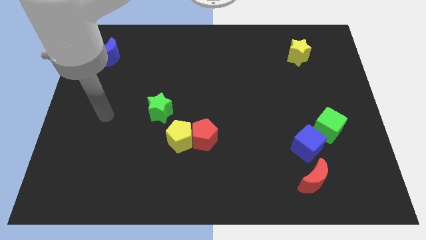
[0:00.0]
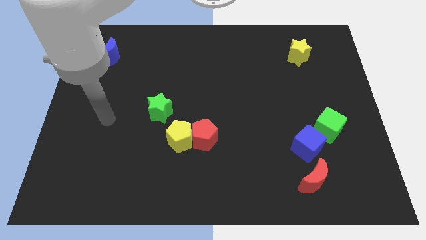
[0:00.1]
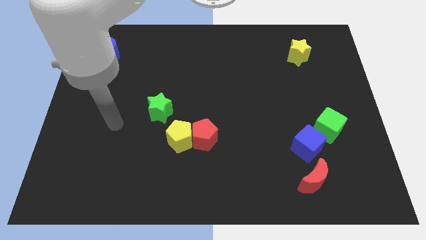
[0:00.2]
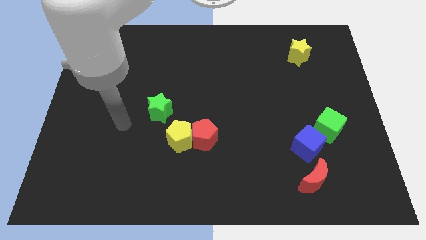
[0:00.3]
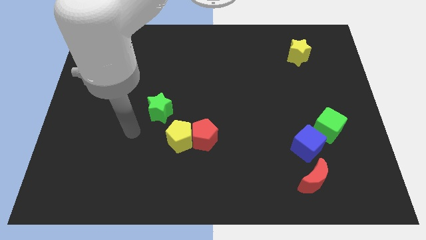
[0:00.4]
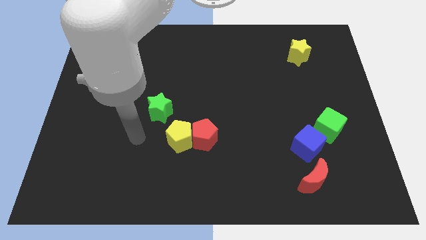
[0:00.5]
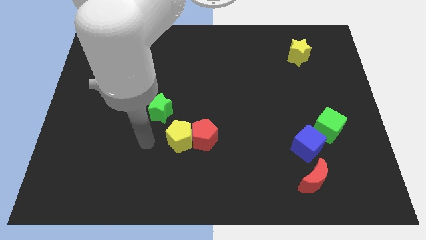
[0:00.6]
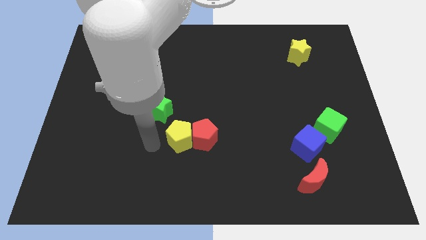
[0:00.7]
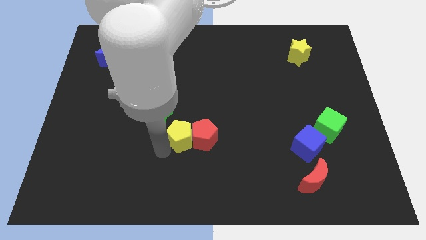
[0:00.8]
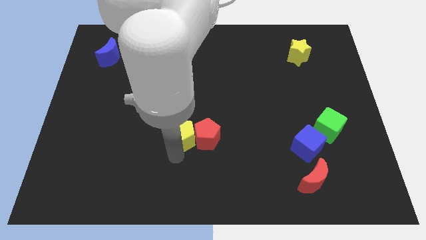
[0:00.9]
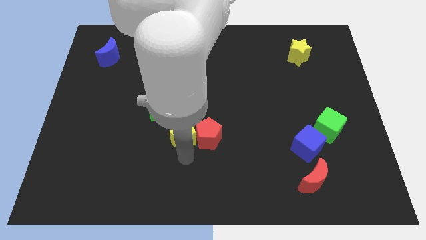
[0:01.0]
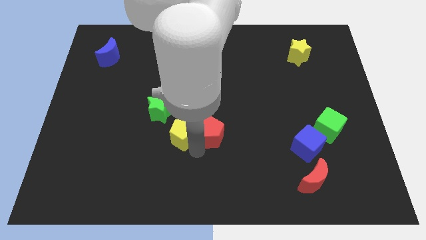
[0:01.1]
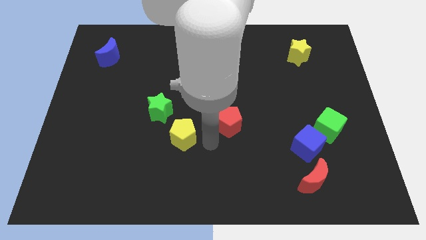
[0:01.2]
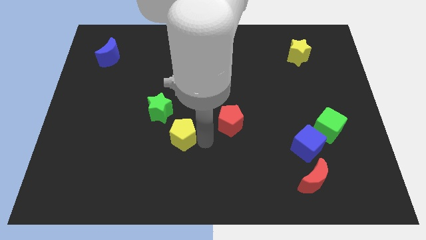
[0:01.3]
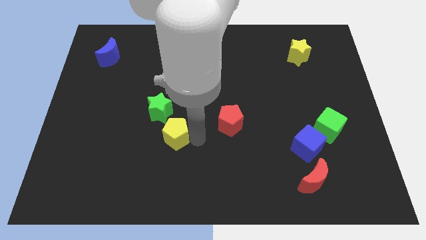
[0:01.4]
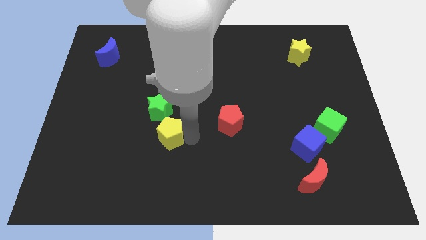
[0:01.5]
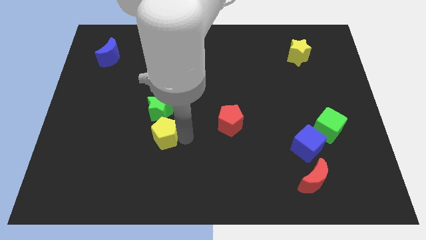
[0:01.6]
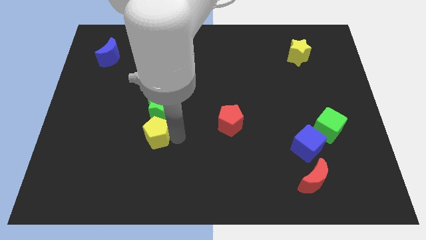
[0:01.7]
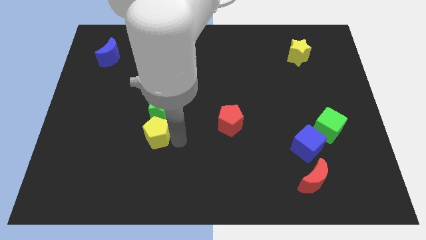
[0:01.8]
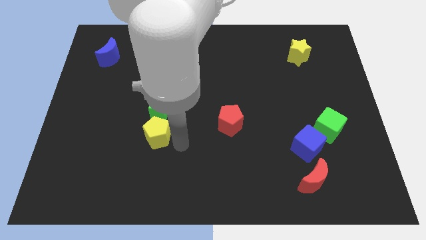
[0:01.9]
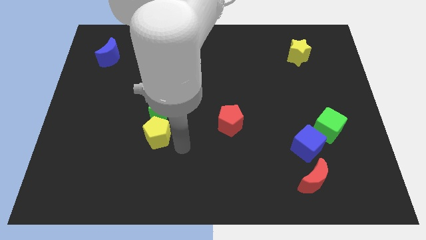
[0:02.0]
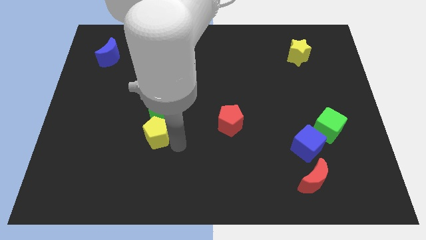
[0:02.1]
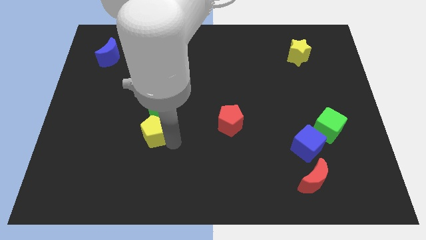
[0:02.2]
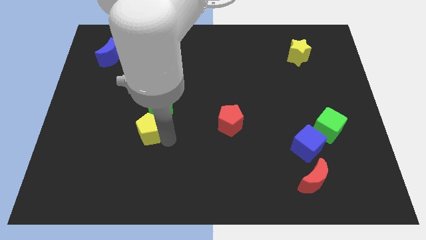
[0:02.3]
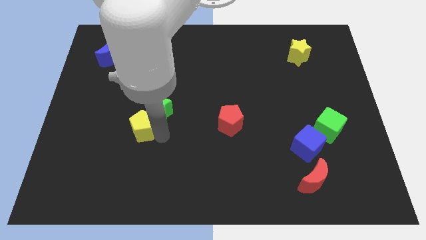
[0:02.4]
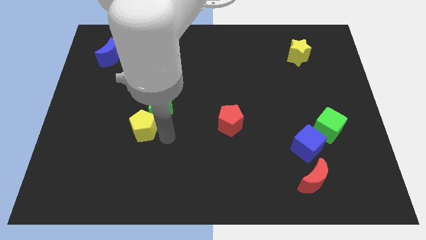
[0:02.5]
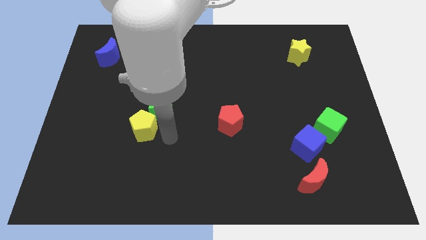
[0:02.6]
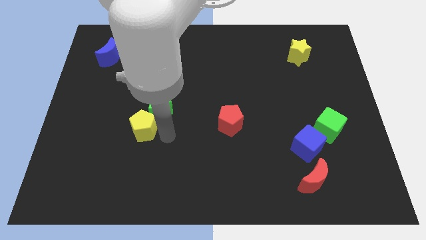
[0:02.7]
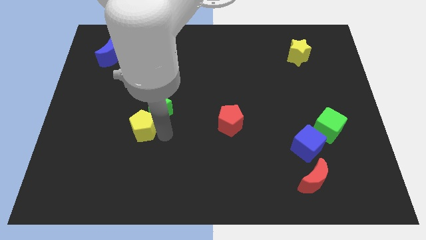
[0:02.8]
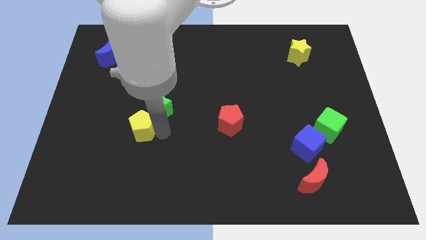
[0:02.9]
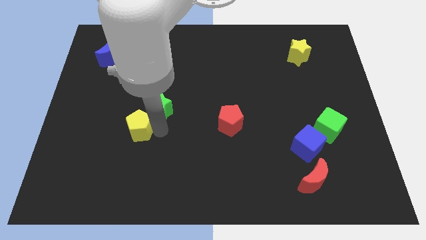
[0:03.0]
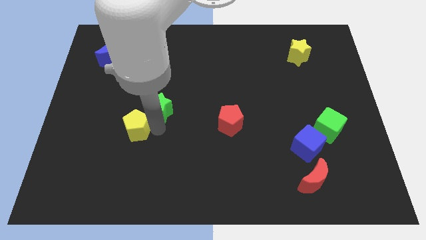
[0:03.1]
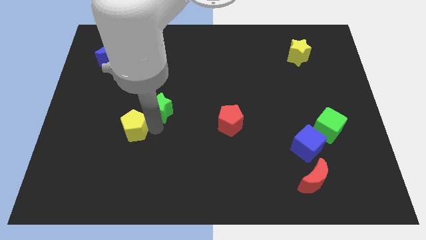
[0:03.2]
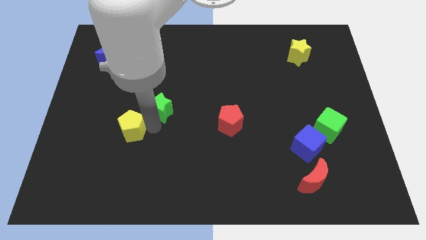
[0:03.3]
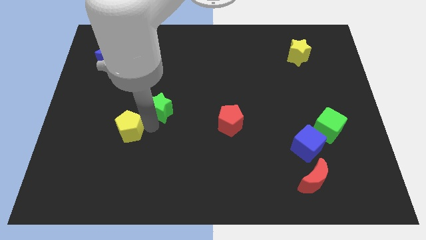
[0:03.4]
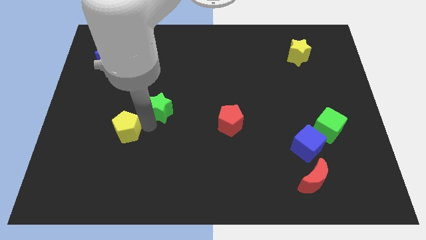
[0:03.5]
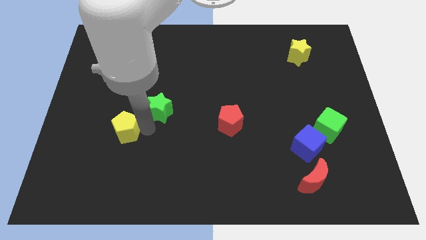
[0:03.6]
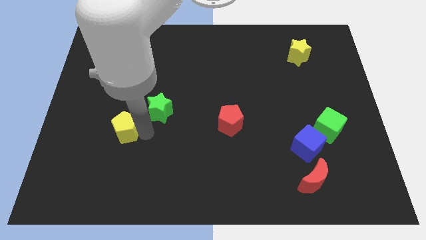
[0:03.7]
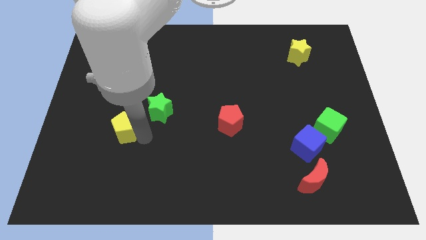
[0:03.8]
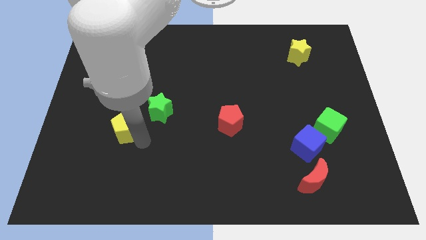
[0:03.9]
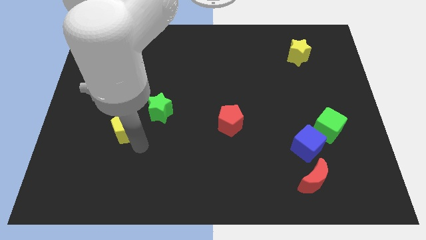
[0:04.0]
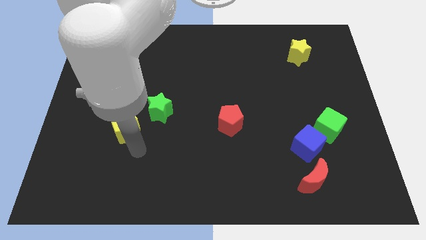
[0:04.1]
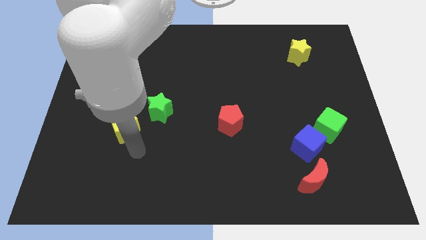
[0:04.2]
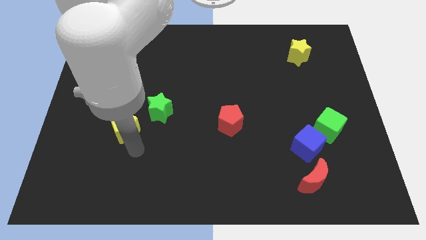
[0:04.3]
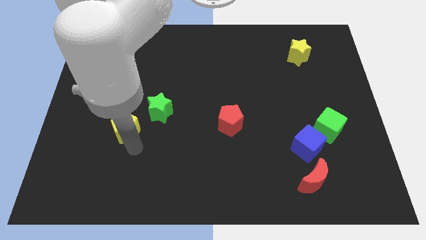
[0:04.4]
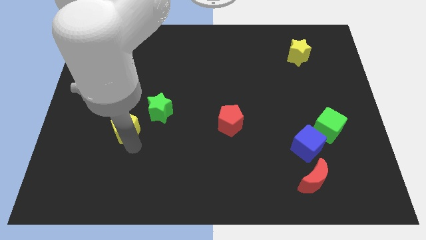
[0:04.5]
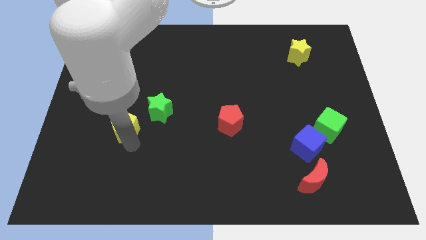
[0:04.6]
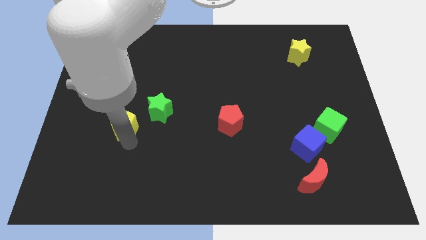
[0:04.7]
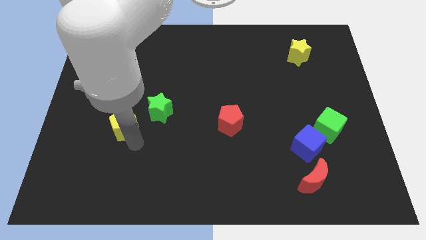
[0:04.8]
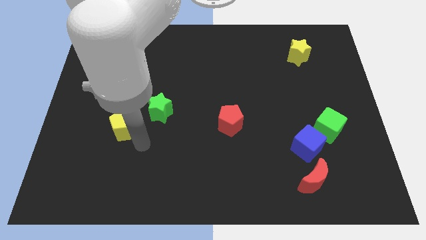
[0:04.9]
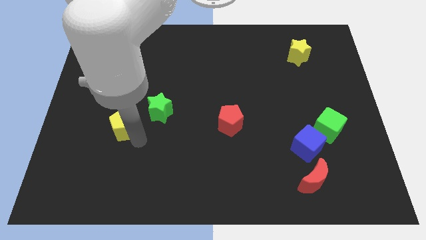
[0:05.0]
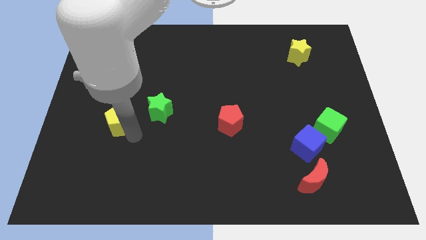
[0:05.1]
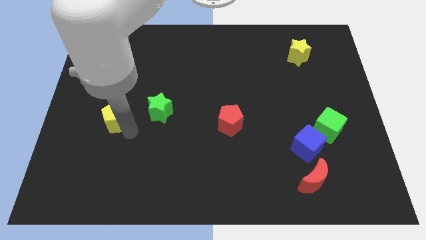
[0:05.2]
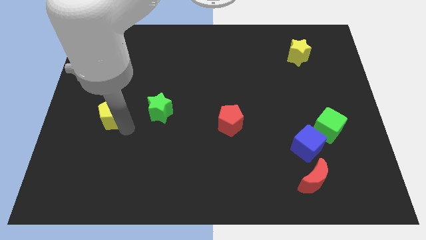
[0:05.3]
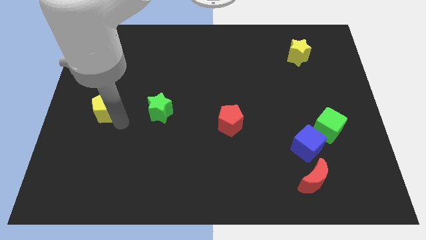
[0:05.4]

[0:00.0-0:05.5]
push the yellow pentagon to the left side

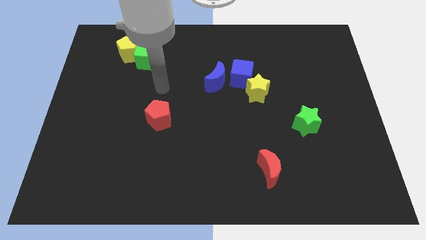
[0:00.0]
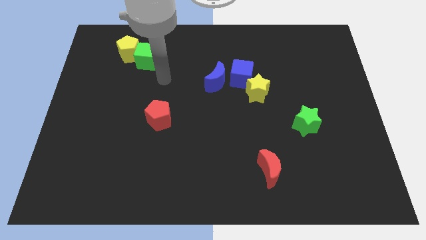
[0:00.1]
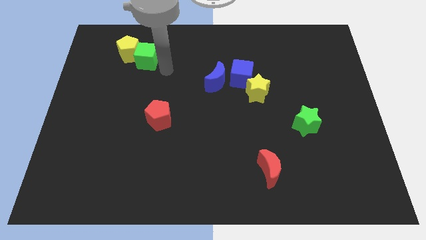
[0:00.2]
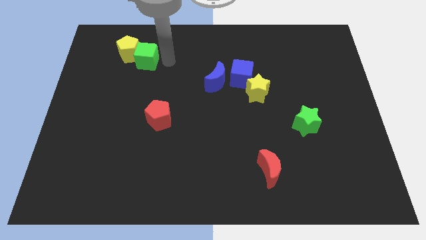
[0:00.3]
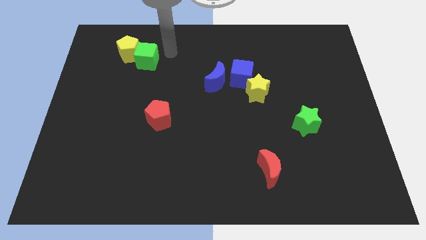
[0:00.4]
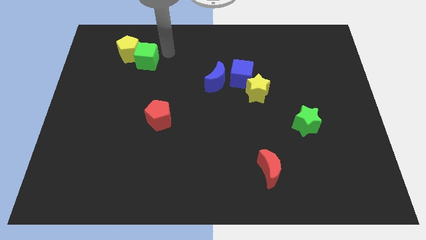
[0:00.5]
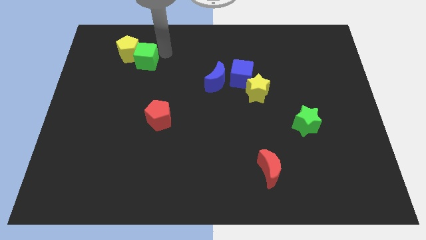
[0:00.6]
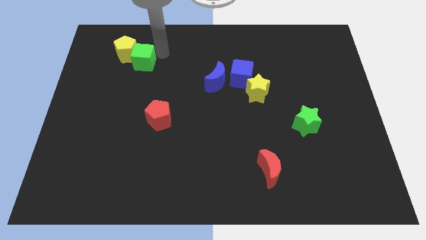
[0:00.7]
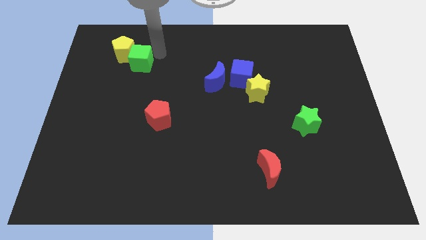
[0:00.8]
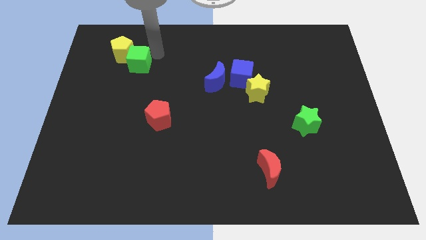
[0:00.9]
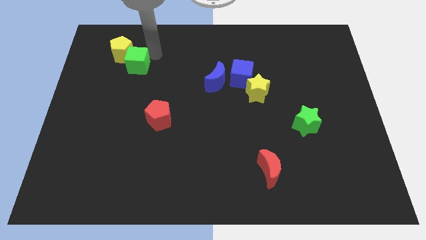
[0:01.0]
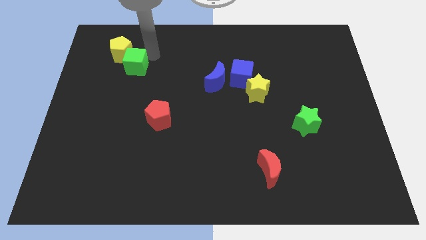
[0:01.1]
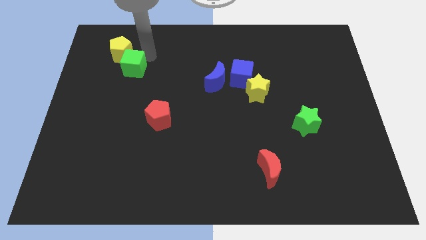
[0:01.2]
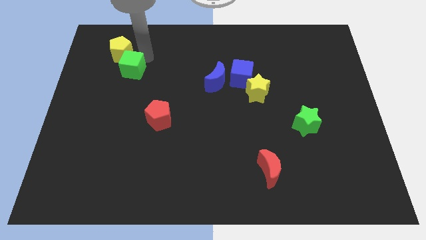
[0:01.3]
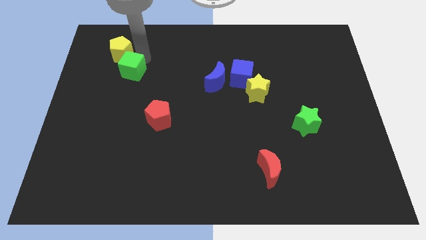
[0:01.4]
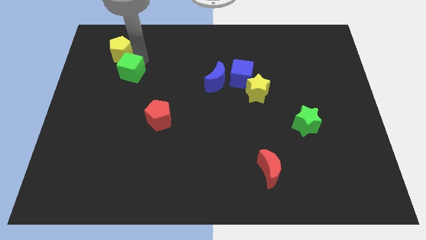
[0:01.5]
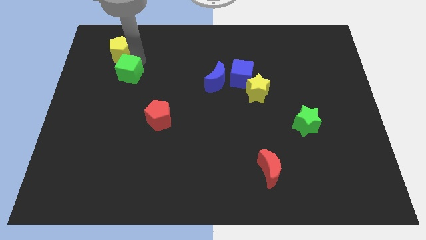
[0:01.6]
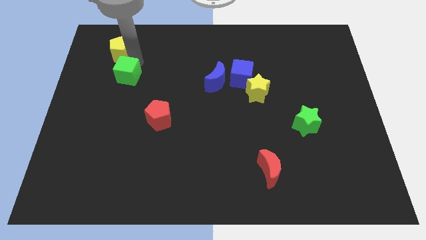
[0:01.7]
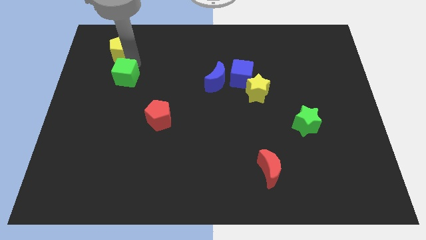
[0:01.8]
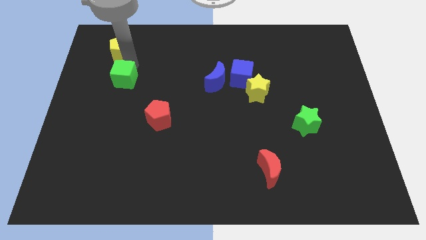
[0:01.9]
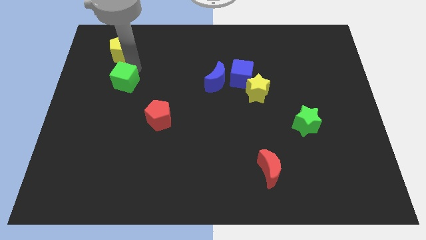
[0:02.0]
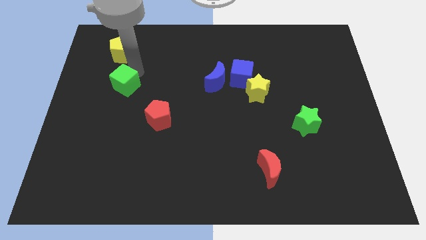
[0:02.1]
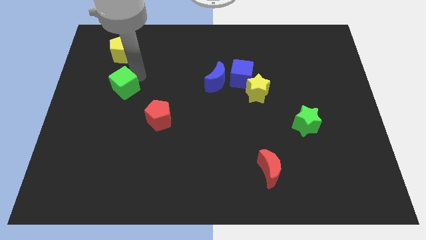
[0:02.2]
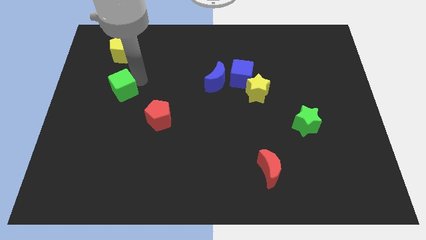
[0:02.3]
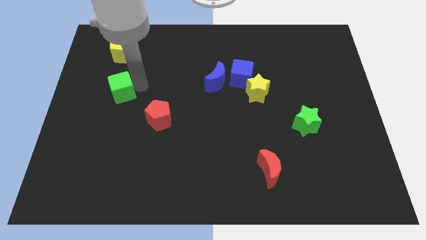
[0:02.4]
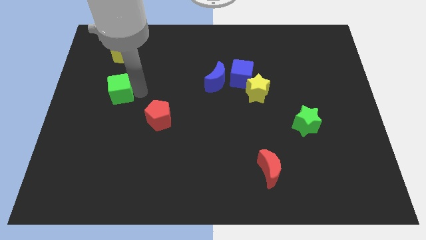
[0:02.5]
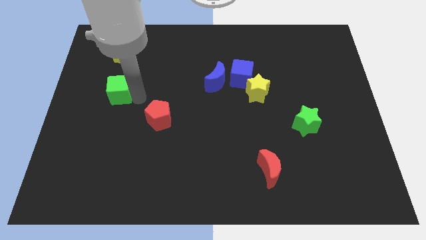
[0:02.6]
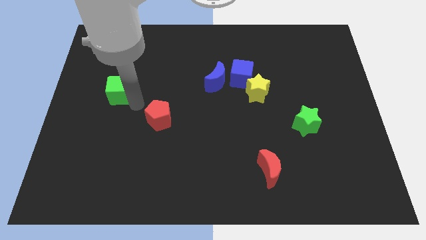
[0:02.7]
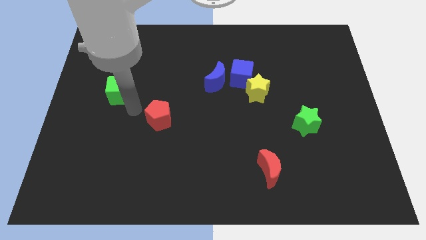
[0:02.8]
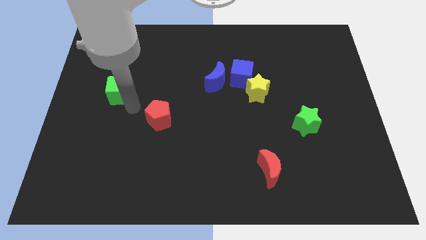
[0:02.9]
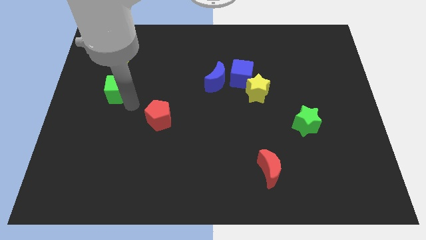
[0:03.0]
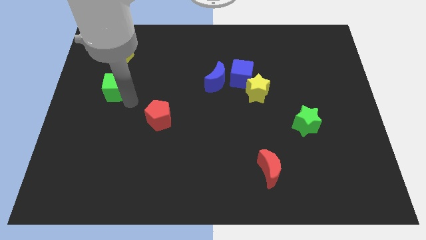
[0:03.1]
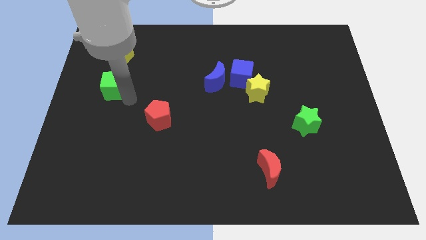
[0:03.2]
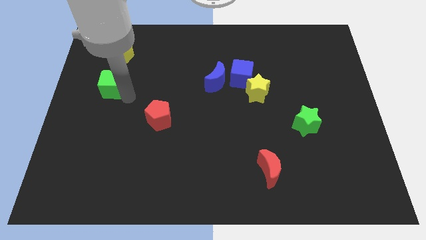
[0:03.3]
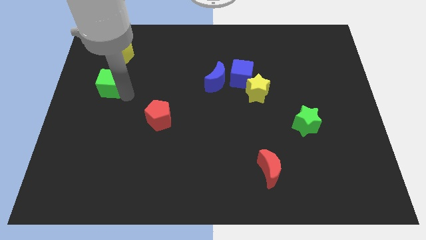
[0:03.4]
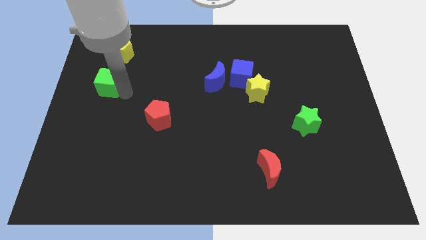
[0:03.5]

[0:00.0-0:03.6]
push the green cube to the center left
